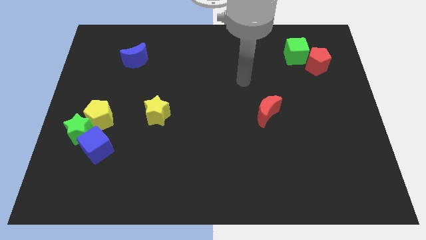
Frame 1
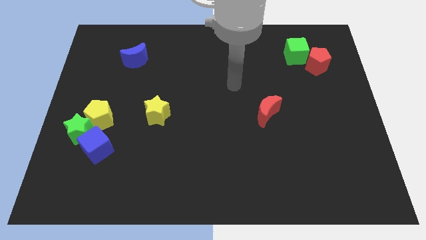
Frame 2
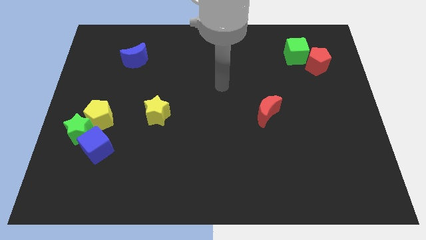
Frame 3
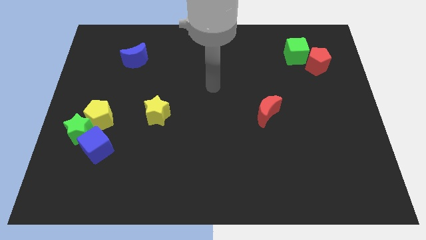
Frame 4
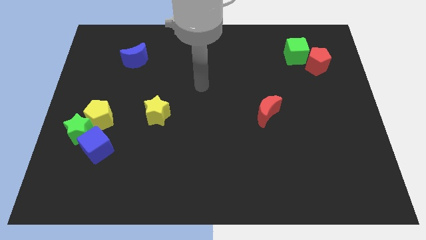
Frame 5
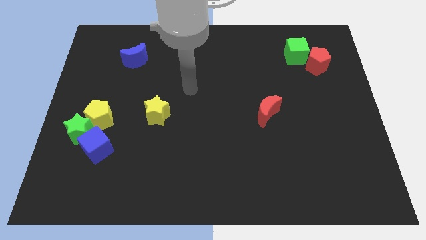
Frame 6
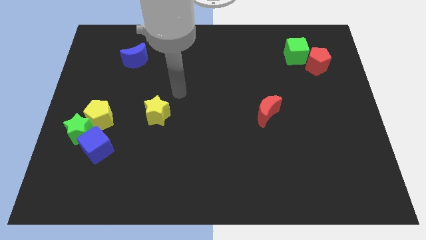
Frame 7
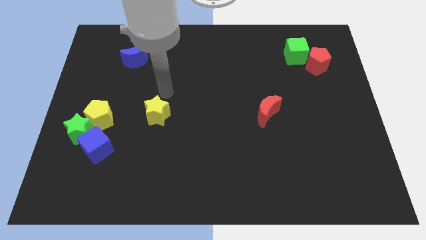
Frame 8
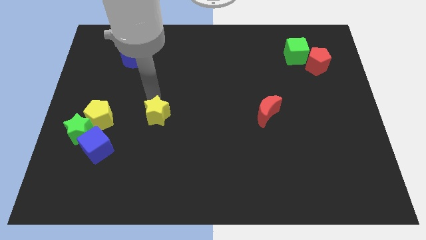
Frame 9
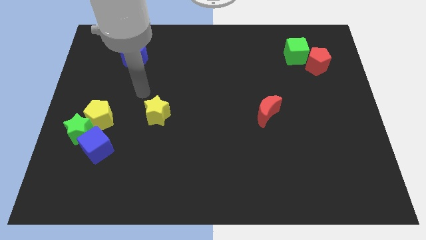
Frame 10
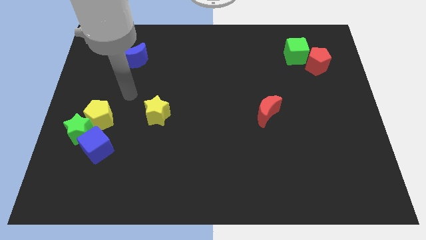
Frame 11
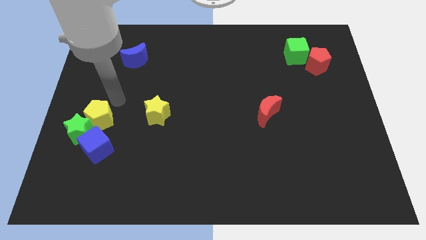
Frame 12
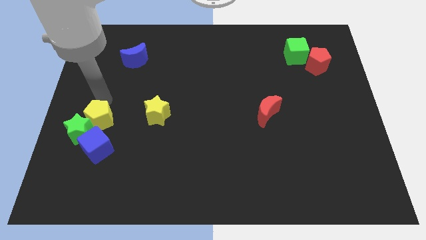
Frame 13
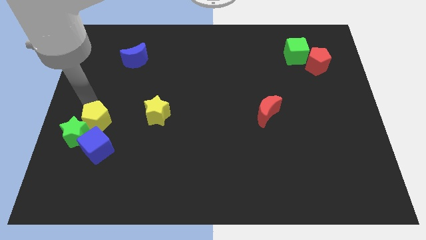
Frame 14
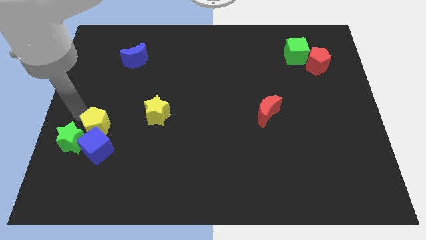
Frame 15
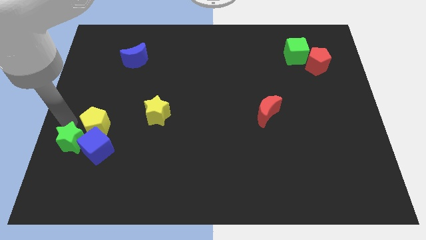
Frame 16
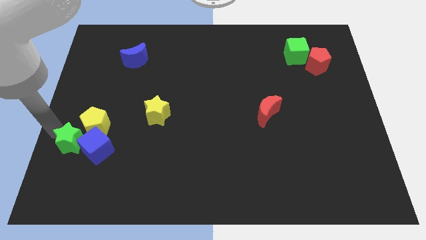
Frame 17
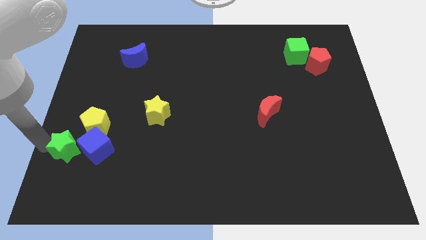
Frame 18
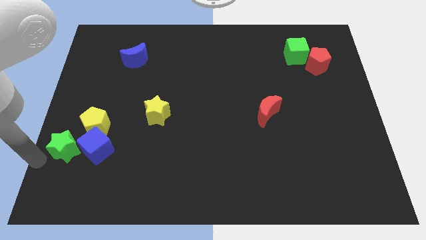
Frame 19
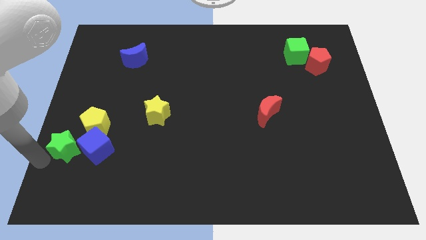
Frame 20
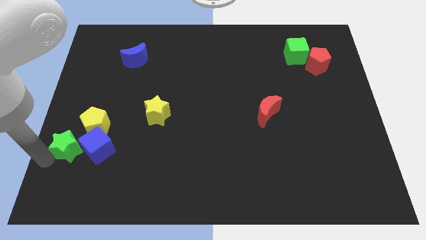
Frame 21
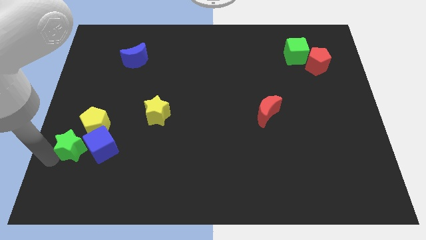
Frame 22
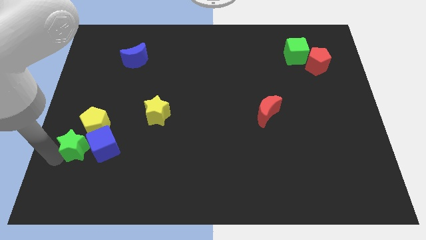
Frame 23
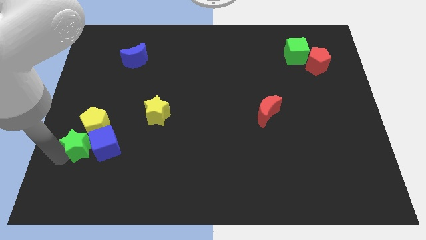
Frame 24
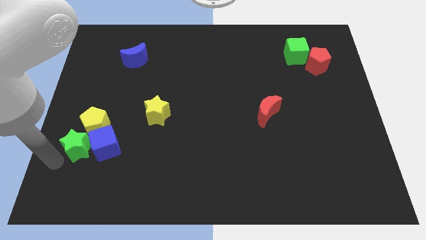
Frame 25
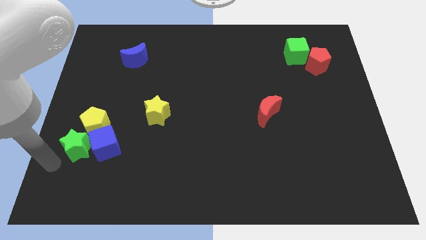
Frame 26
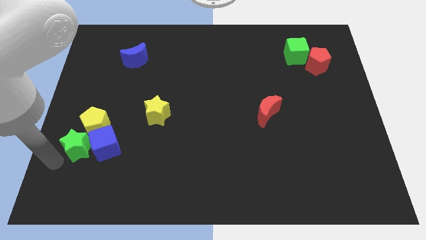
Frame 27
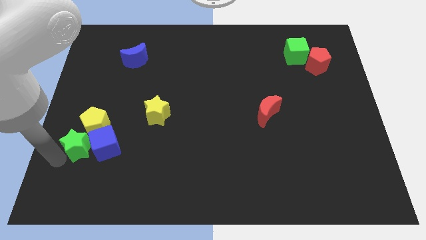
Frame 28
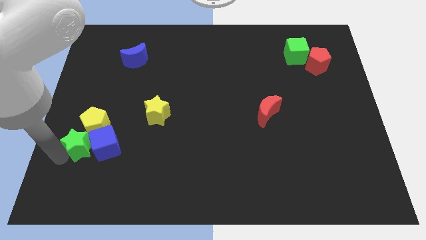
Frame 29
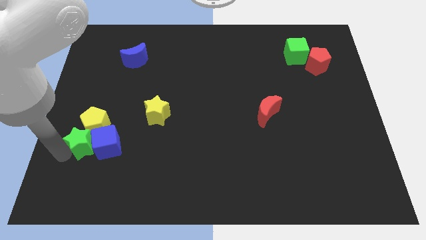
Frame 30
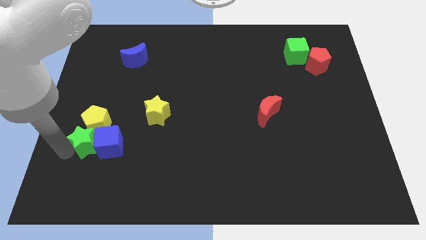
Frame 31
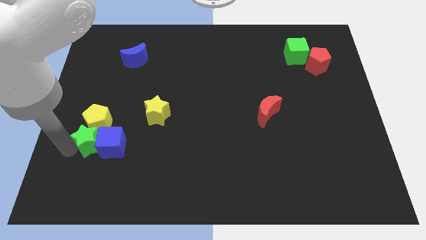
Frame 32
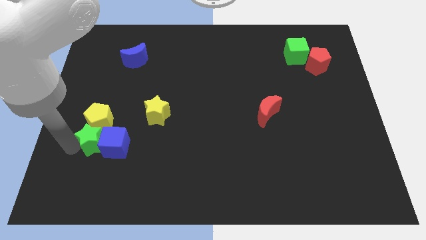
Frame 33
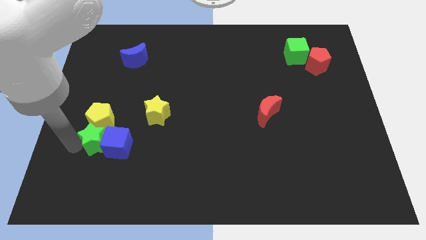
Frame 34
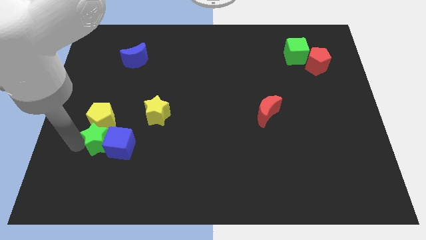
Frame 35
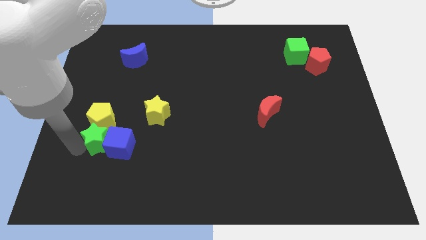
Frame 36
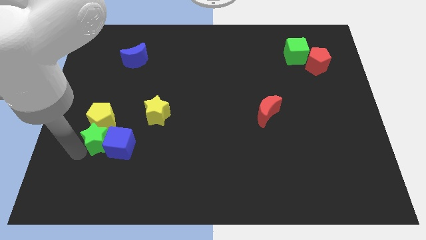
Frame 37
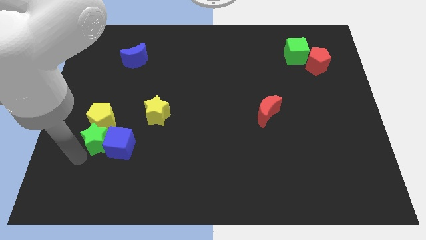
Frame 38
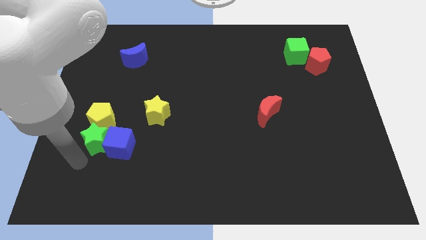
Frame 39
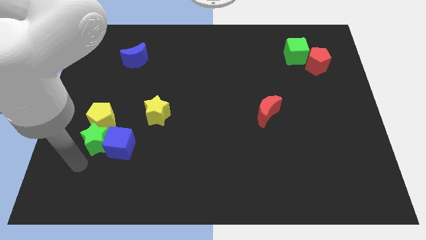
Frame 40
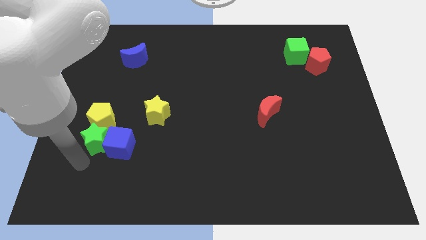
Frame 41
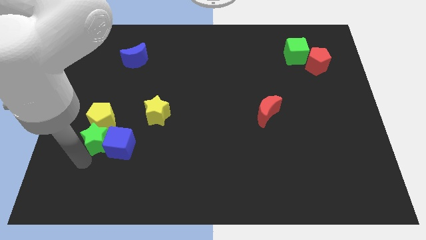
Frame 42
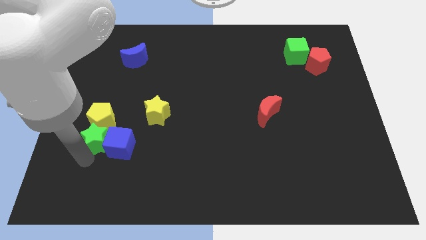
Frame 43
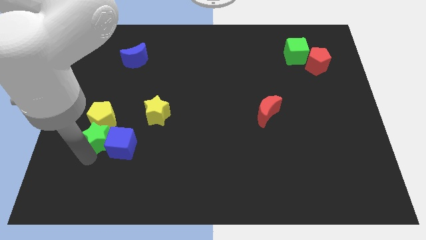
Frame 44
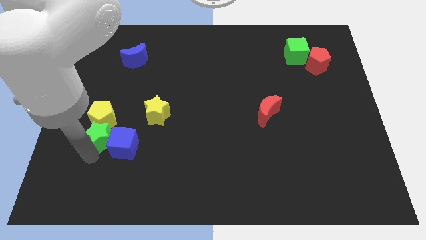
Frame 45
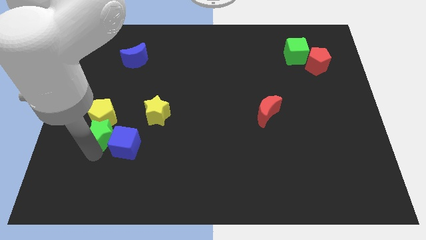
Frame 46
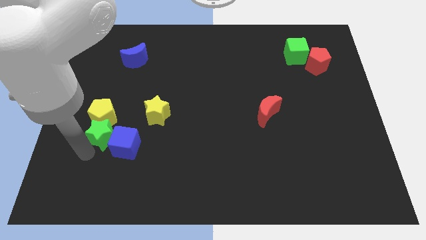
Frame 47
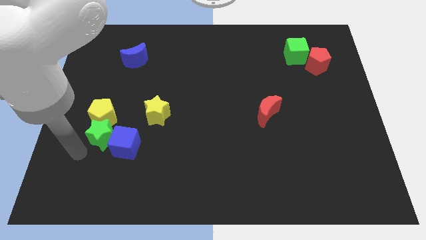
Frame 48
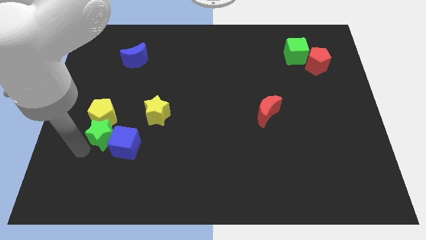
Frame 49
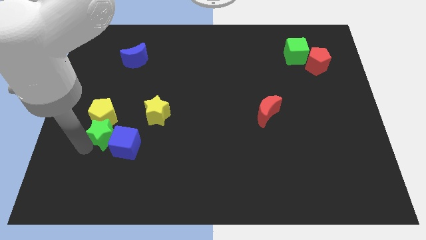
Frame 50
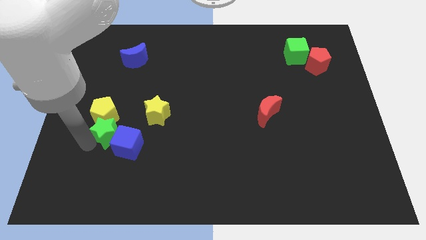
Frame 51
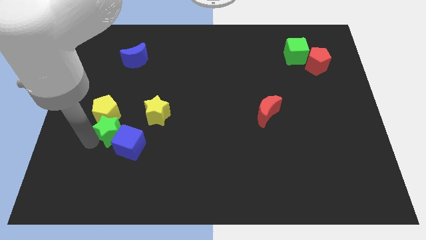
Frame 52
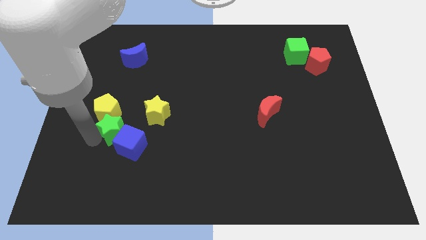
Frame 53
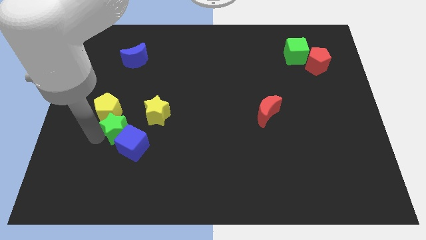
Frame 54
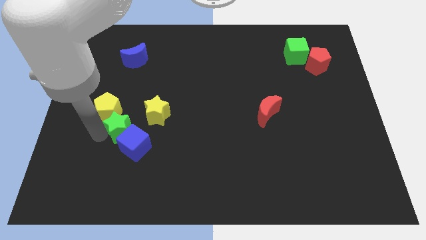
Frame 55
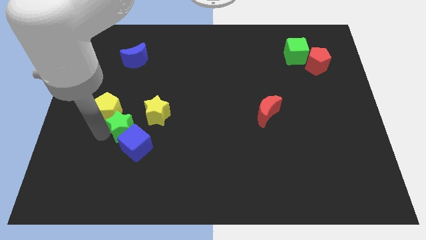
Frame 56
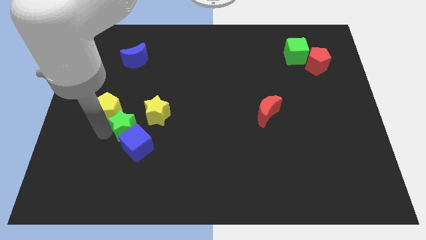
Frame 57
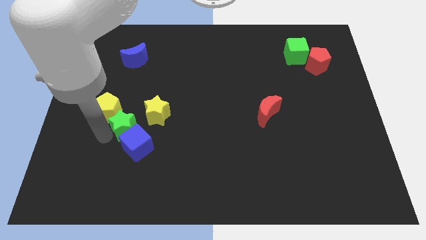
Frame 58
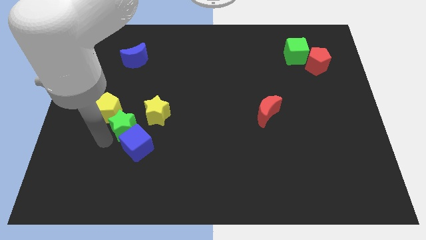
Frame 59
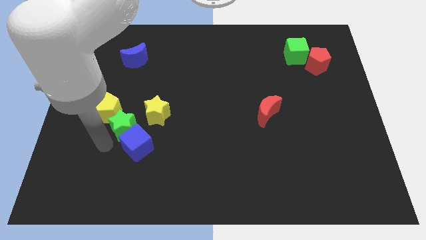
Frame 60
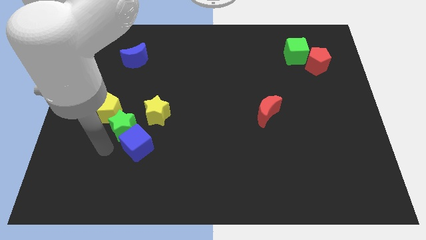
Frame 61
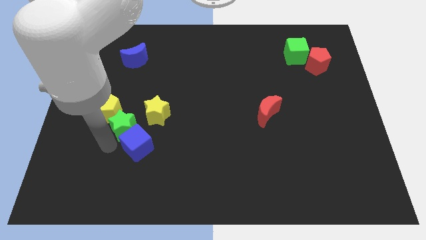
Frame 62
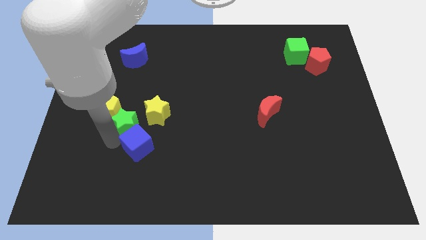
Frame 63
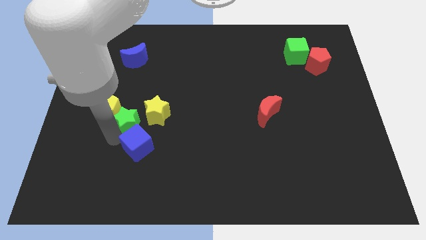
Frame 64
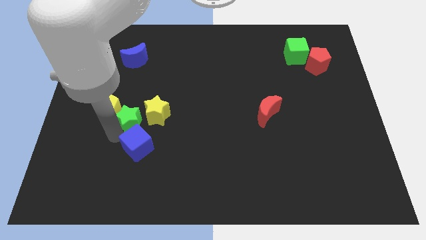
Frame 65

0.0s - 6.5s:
move the green star close to the yellow star

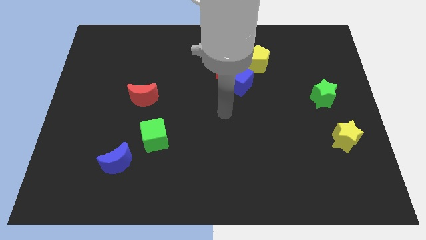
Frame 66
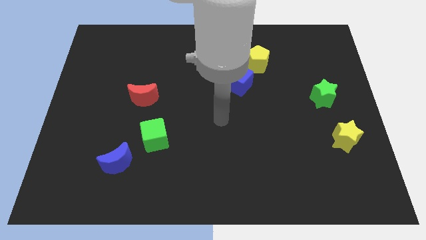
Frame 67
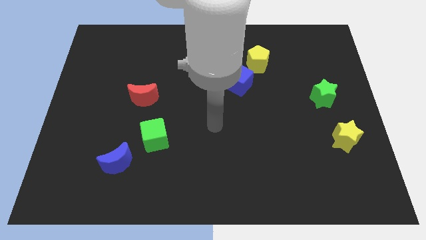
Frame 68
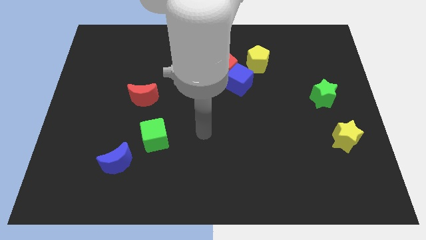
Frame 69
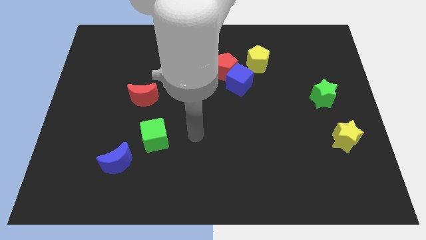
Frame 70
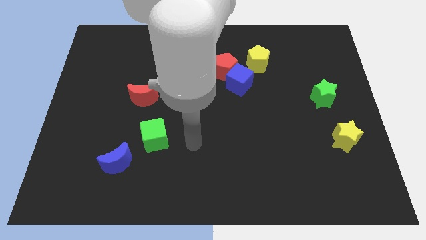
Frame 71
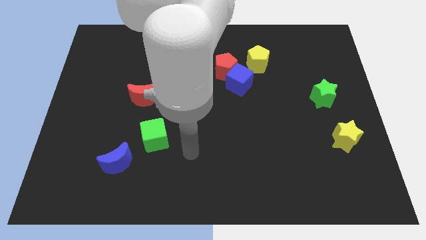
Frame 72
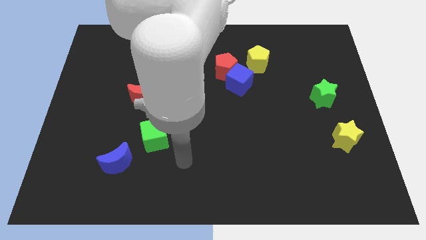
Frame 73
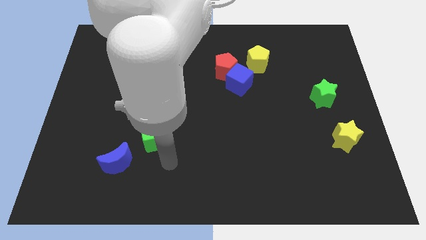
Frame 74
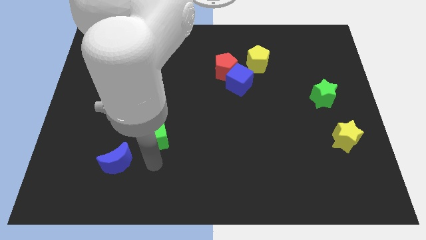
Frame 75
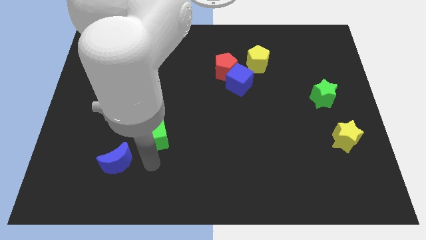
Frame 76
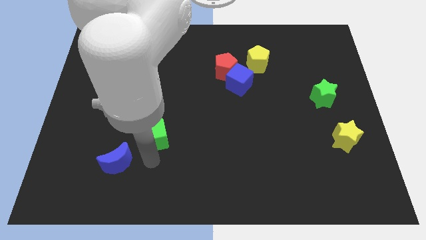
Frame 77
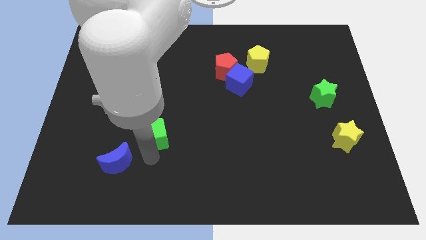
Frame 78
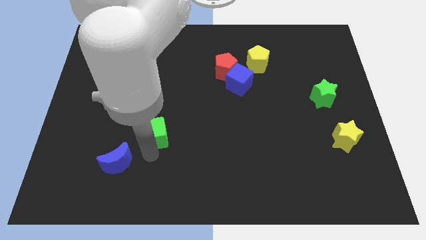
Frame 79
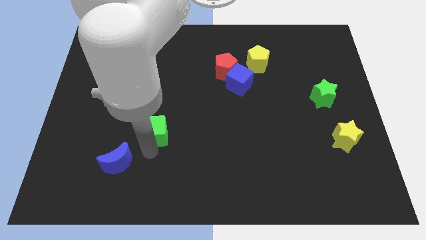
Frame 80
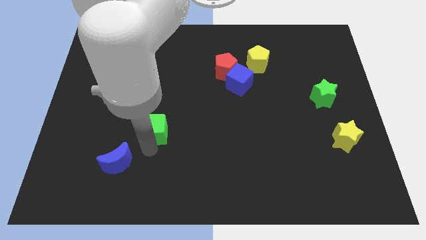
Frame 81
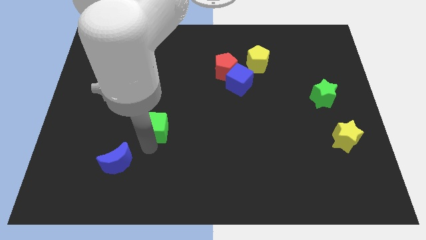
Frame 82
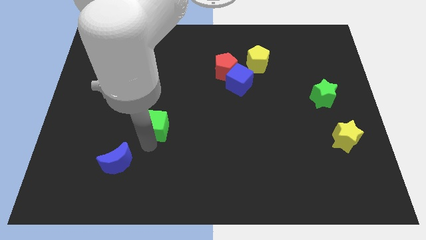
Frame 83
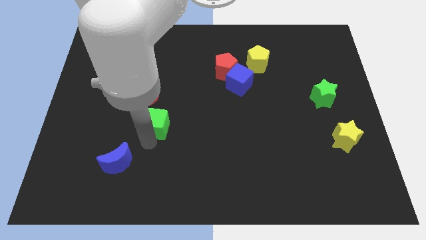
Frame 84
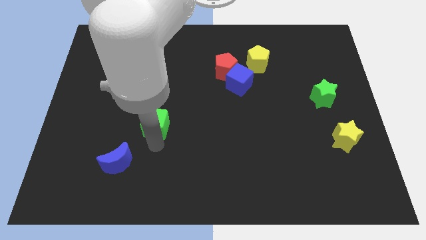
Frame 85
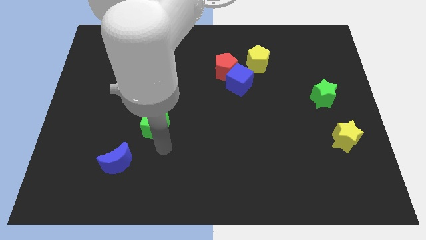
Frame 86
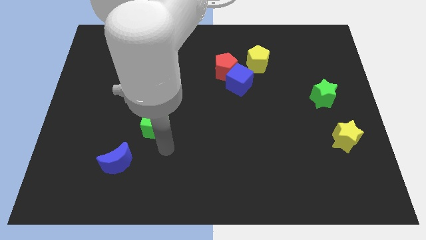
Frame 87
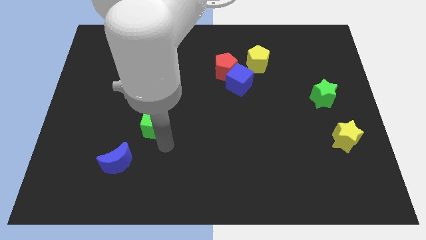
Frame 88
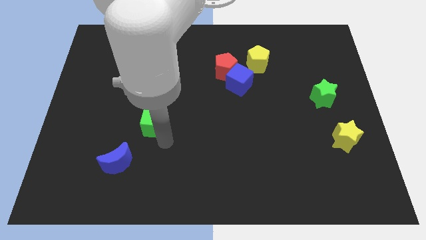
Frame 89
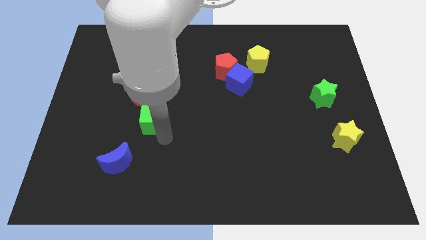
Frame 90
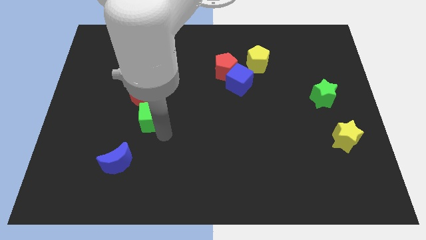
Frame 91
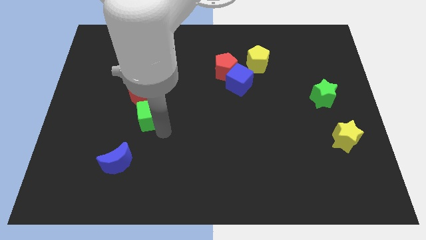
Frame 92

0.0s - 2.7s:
move the green cube next to the red moon
